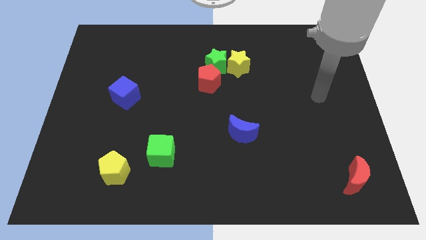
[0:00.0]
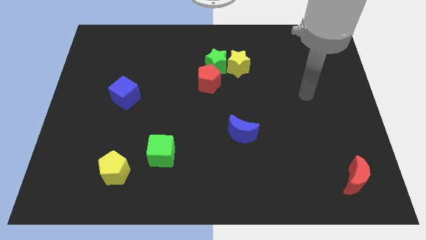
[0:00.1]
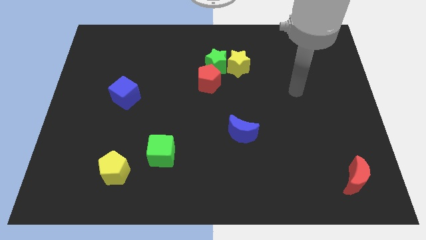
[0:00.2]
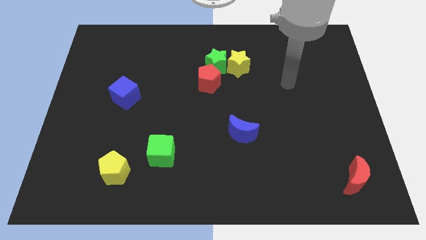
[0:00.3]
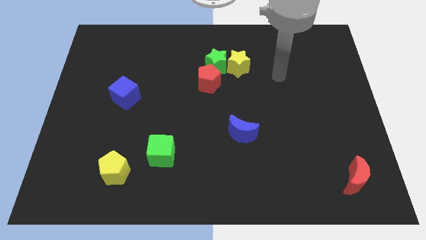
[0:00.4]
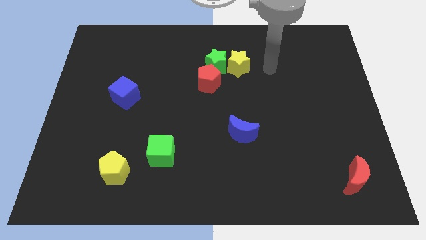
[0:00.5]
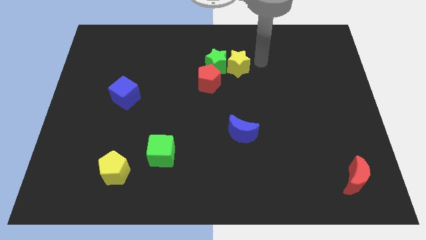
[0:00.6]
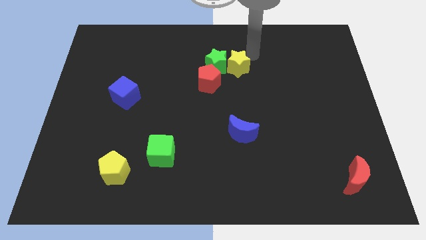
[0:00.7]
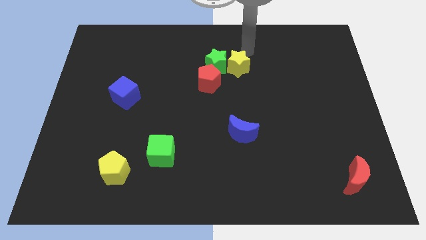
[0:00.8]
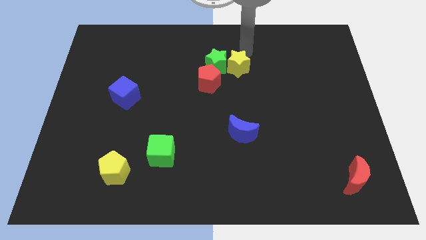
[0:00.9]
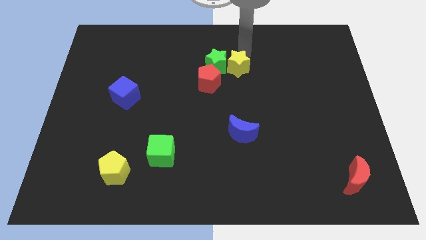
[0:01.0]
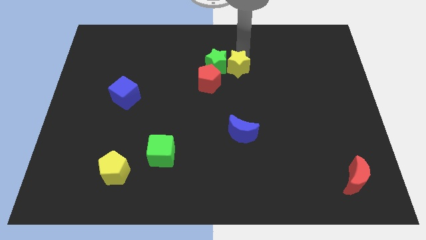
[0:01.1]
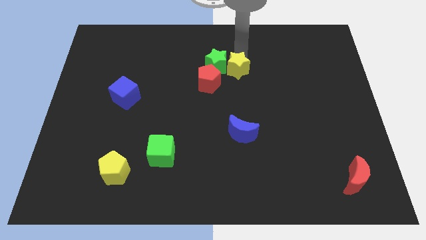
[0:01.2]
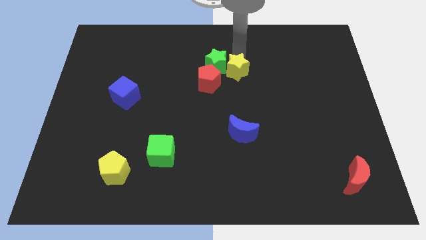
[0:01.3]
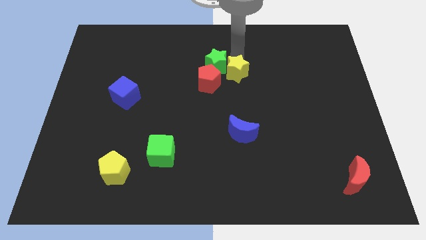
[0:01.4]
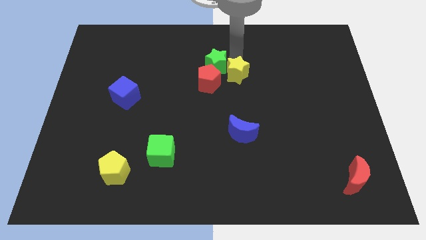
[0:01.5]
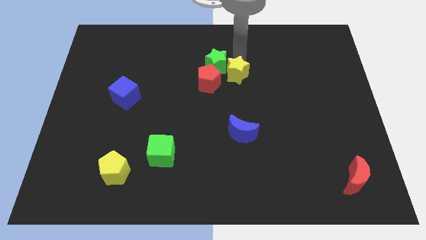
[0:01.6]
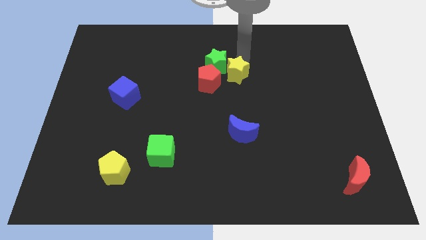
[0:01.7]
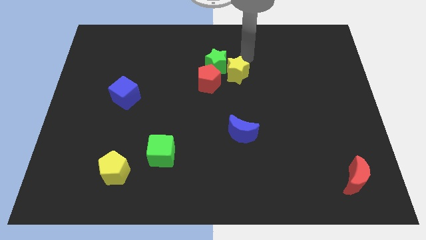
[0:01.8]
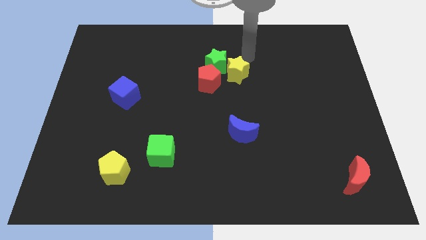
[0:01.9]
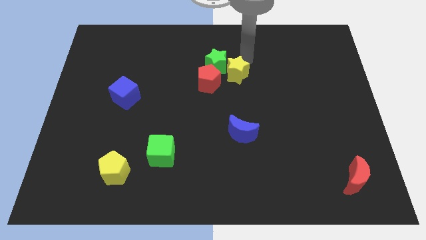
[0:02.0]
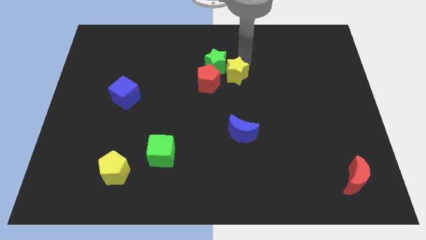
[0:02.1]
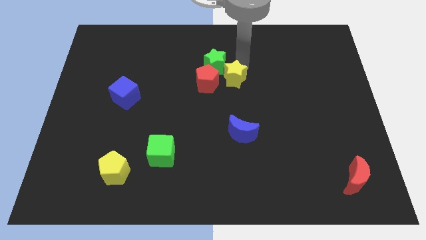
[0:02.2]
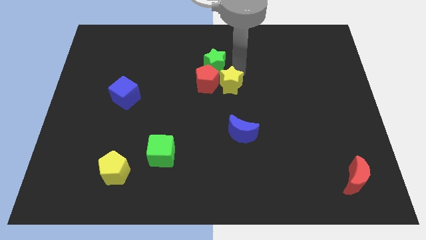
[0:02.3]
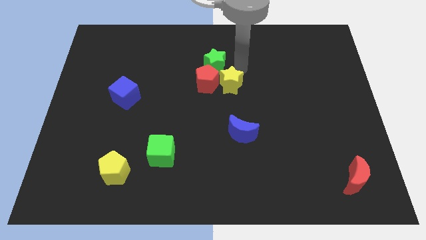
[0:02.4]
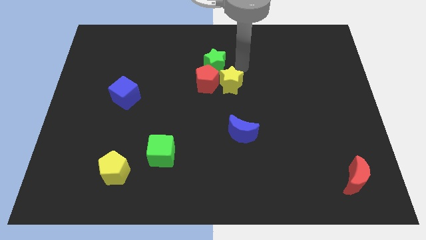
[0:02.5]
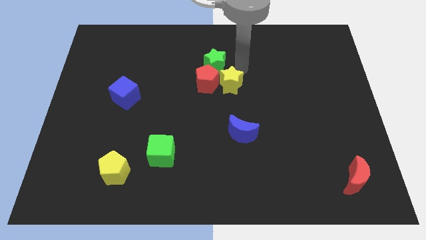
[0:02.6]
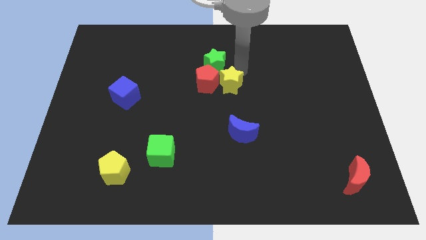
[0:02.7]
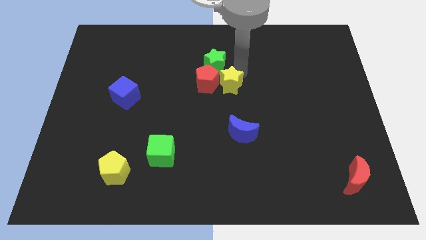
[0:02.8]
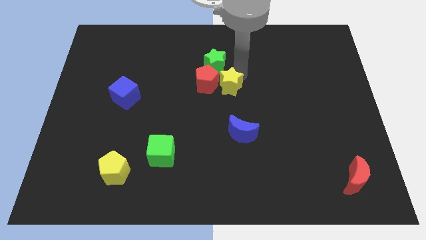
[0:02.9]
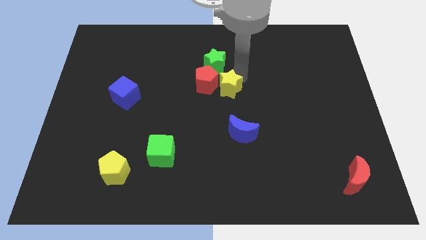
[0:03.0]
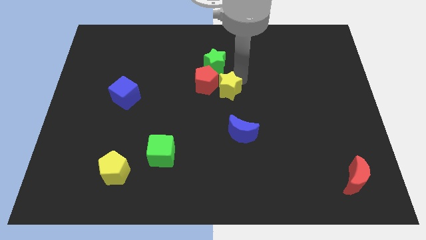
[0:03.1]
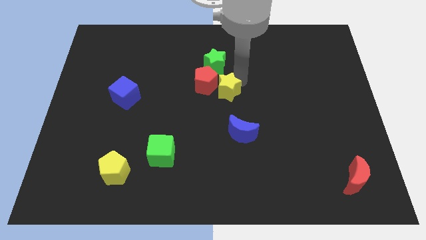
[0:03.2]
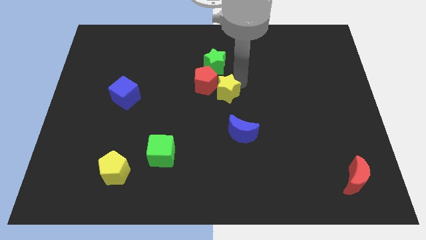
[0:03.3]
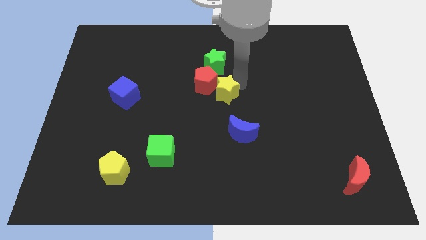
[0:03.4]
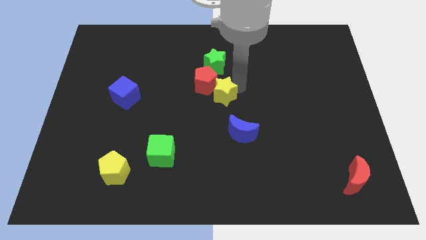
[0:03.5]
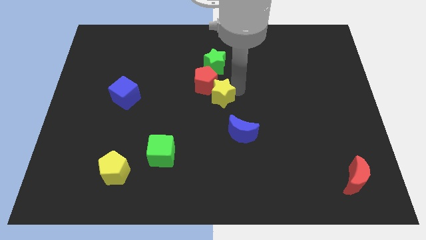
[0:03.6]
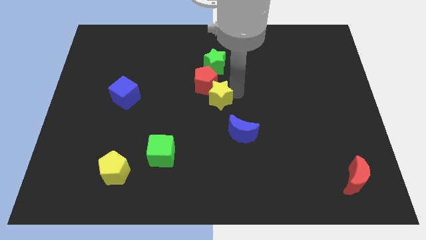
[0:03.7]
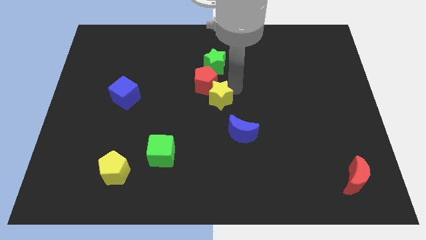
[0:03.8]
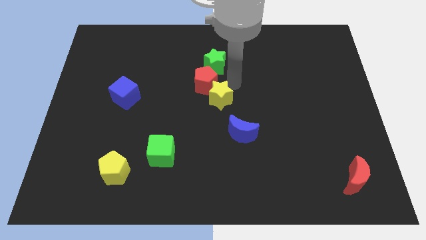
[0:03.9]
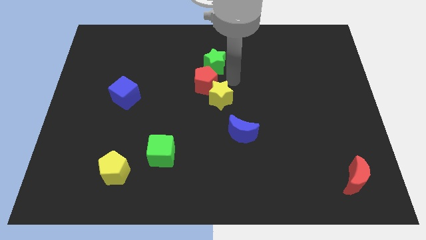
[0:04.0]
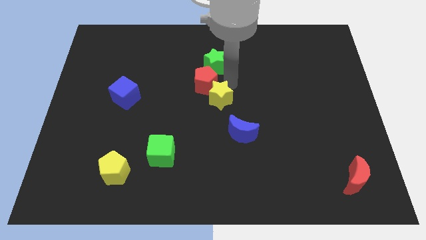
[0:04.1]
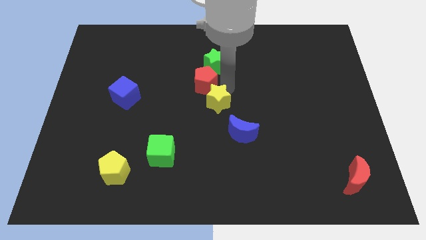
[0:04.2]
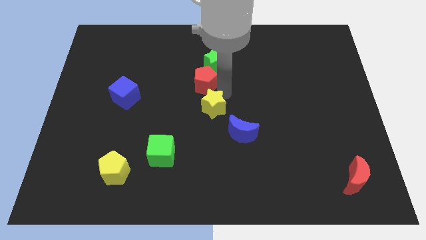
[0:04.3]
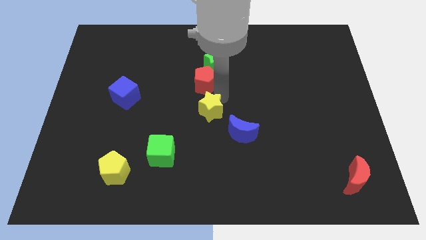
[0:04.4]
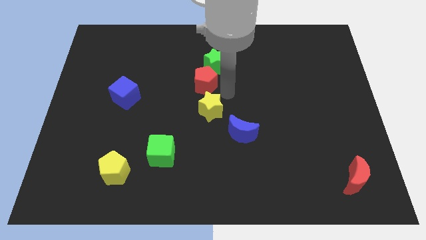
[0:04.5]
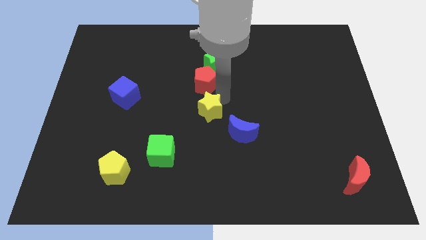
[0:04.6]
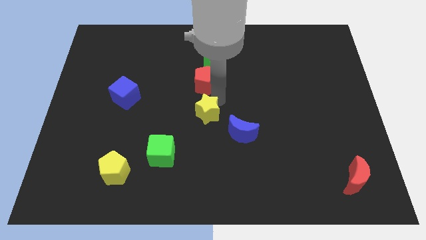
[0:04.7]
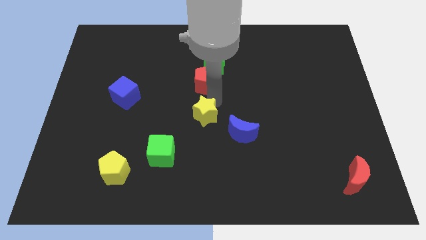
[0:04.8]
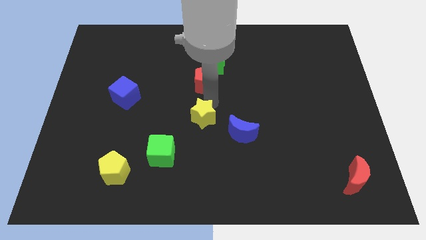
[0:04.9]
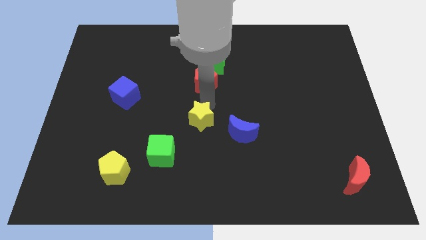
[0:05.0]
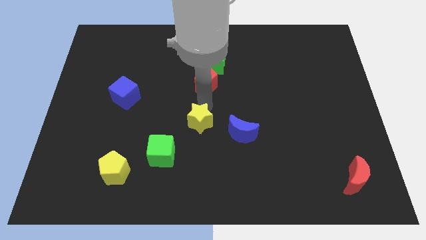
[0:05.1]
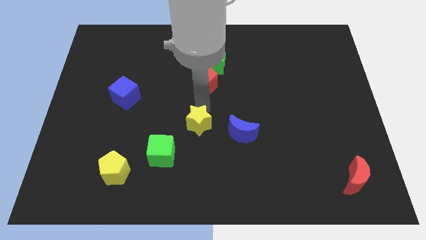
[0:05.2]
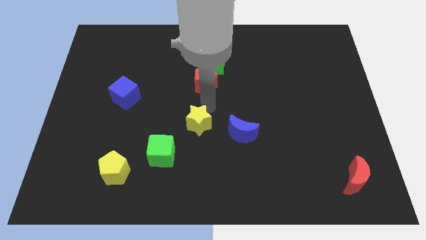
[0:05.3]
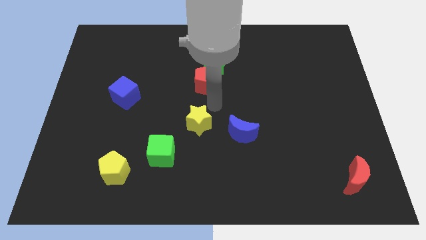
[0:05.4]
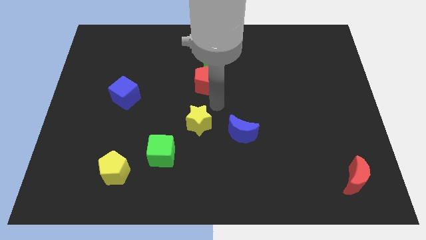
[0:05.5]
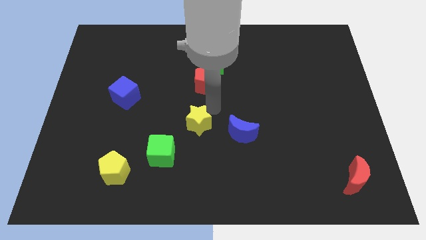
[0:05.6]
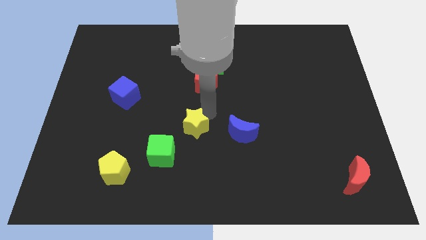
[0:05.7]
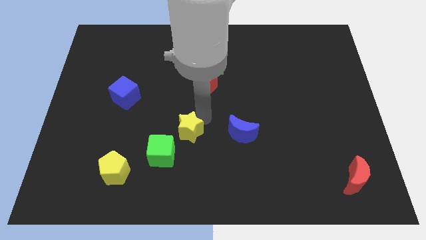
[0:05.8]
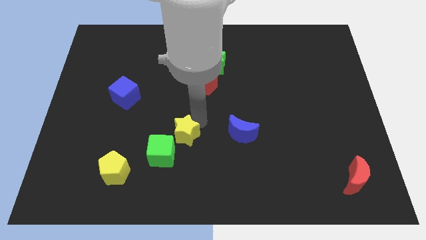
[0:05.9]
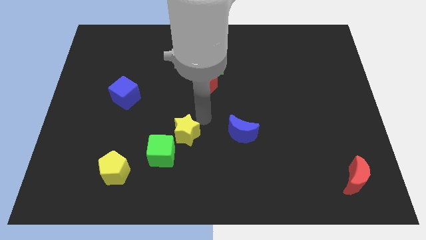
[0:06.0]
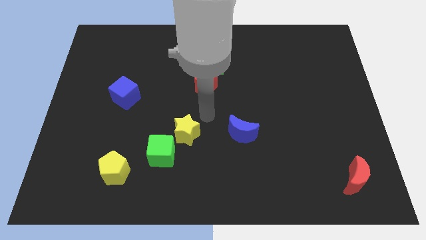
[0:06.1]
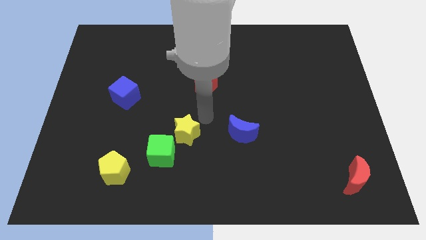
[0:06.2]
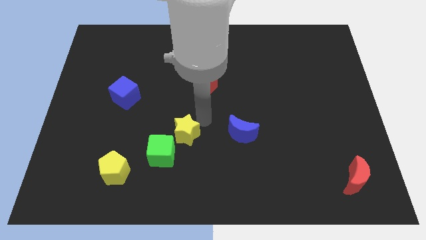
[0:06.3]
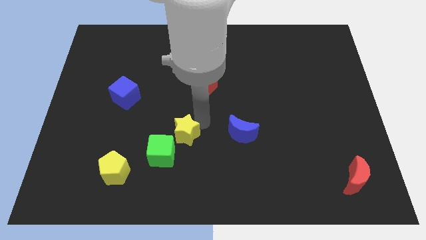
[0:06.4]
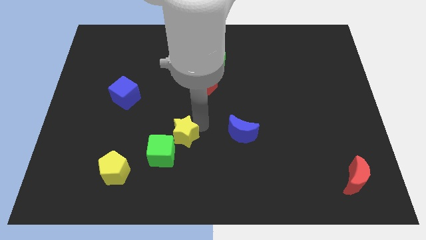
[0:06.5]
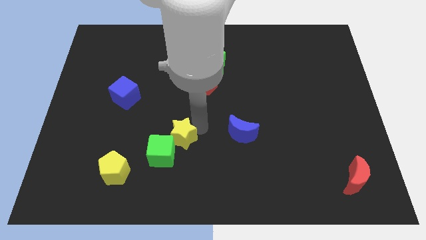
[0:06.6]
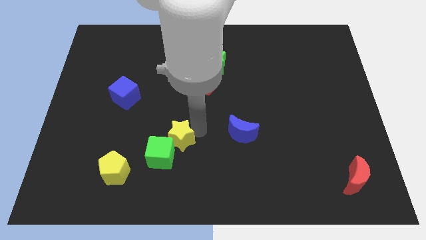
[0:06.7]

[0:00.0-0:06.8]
push the yellow star next to the green cube

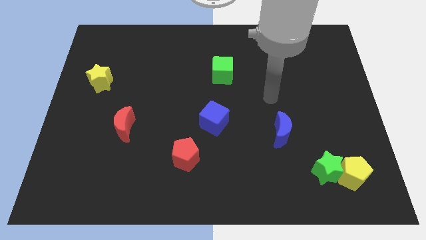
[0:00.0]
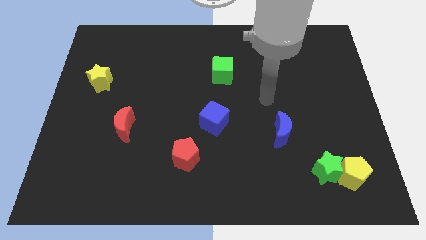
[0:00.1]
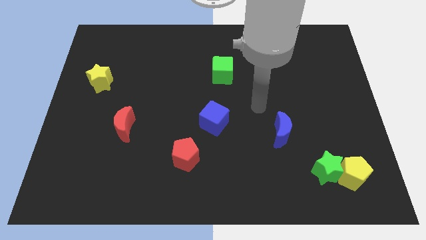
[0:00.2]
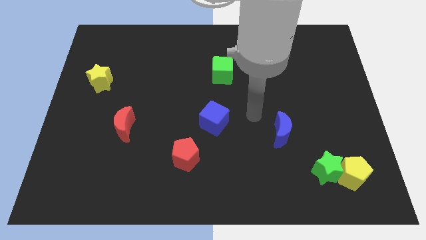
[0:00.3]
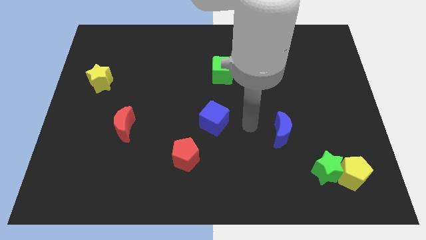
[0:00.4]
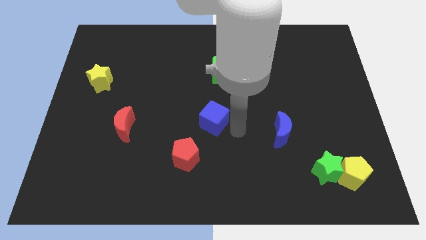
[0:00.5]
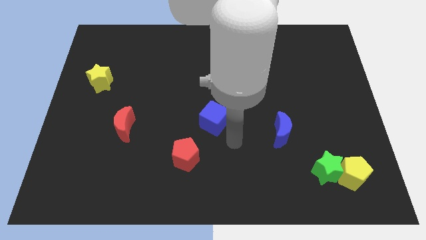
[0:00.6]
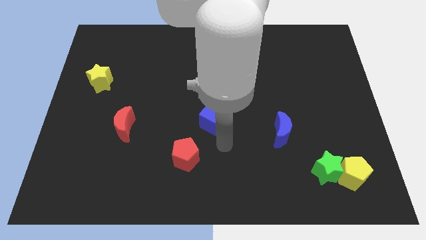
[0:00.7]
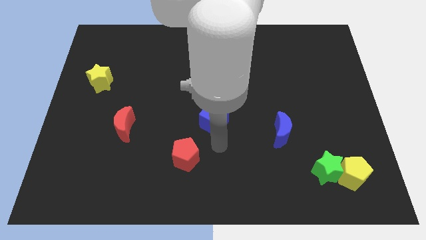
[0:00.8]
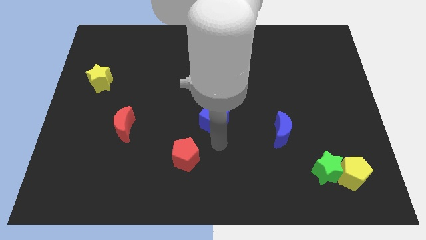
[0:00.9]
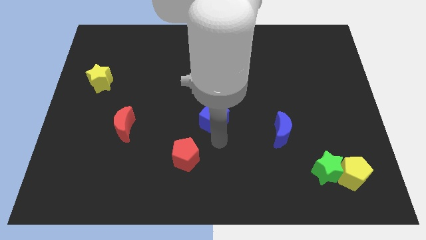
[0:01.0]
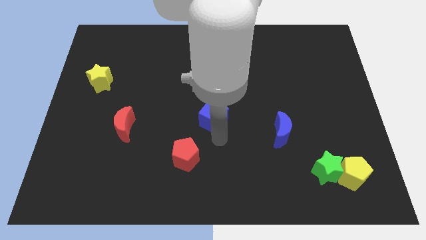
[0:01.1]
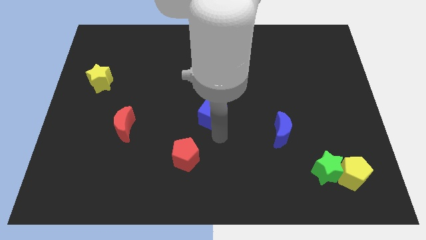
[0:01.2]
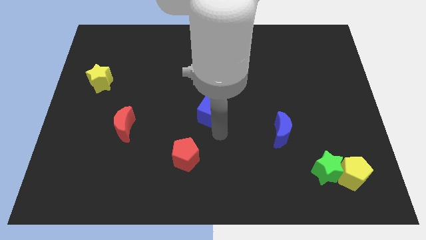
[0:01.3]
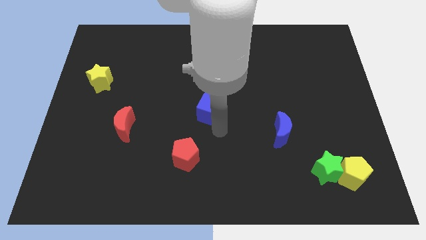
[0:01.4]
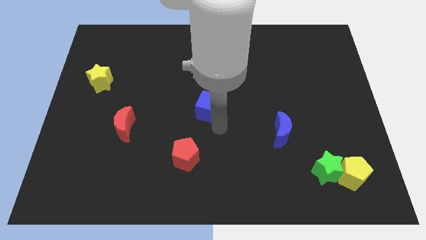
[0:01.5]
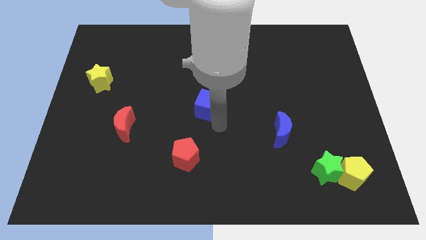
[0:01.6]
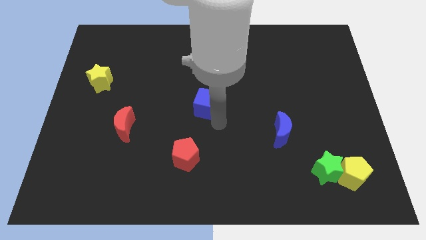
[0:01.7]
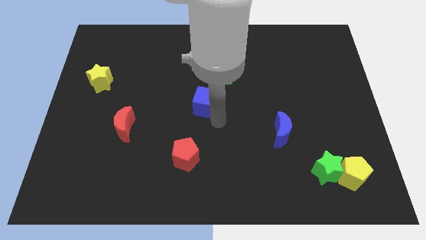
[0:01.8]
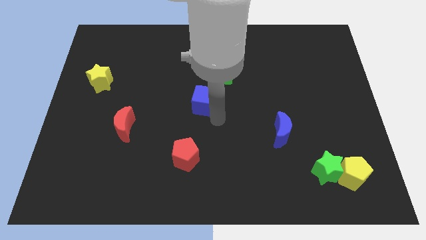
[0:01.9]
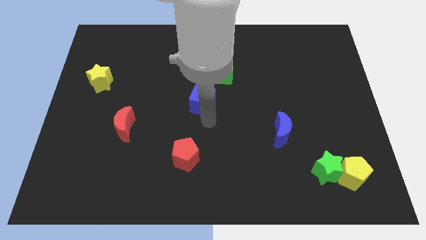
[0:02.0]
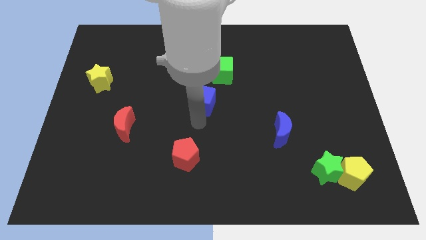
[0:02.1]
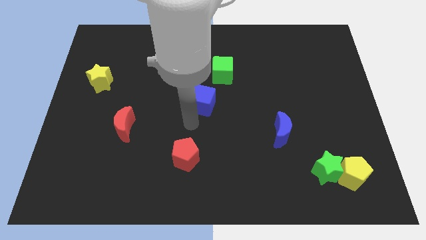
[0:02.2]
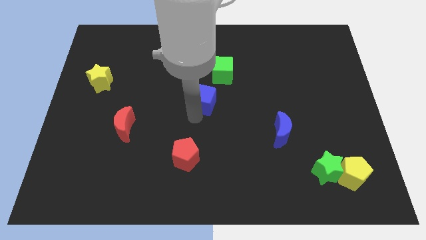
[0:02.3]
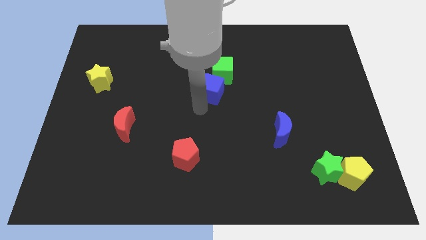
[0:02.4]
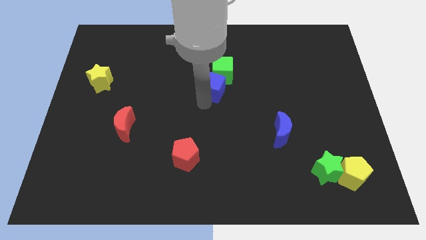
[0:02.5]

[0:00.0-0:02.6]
move the blue cube close to the green cube
